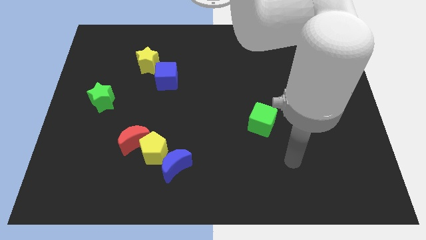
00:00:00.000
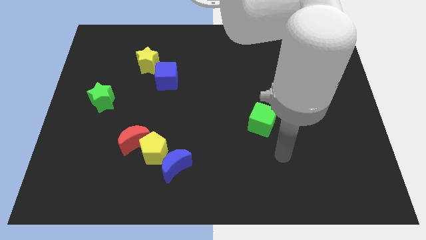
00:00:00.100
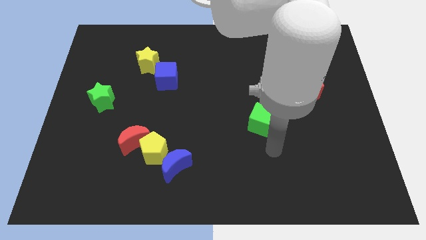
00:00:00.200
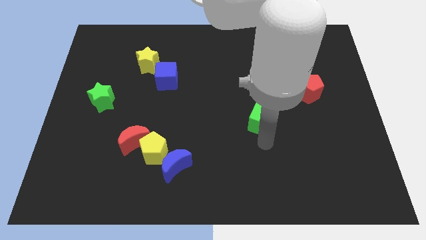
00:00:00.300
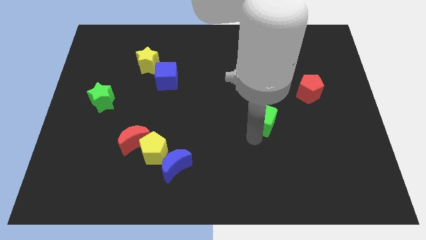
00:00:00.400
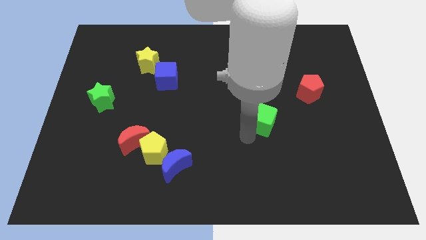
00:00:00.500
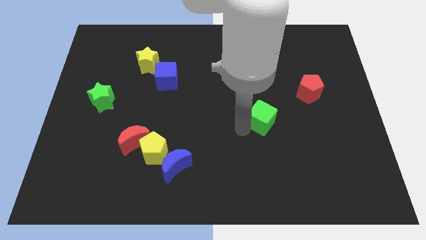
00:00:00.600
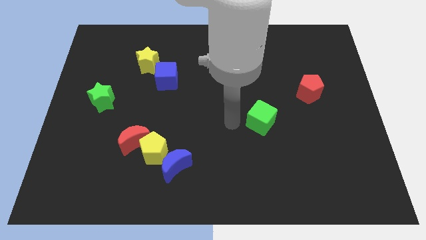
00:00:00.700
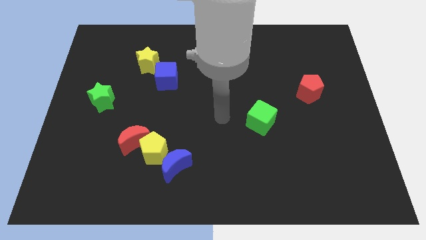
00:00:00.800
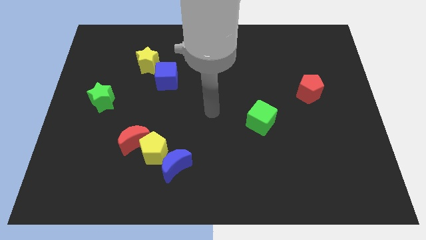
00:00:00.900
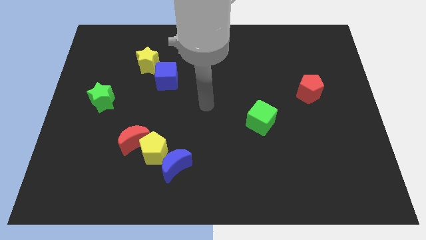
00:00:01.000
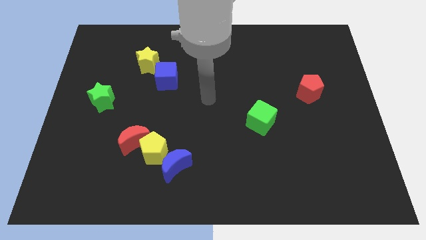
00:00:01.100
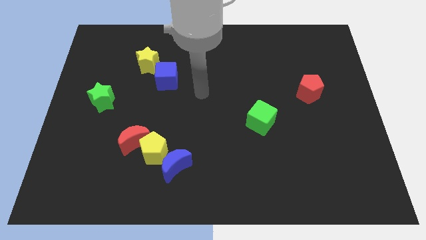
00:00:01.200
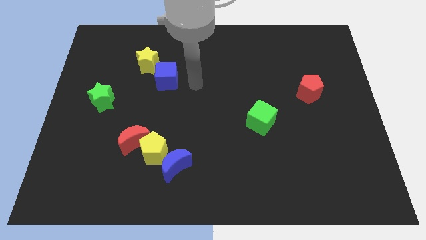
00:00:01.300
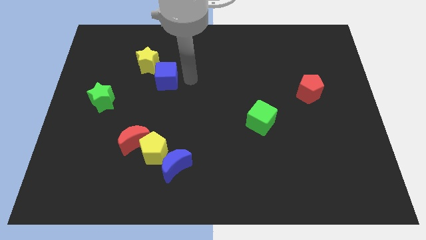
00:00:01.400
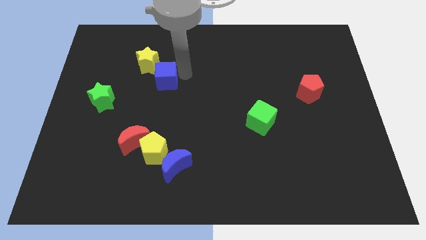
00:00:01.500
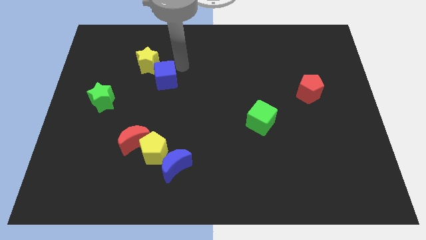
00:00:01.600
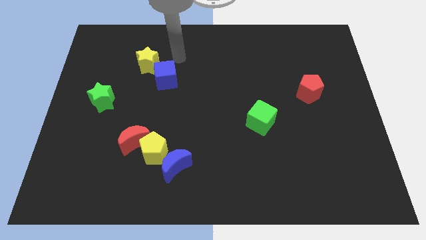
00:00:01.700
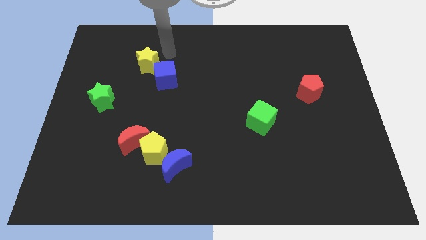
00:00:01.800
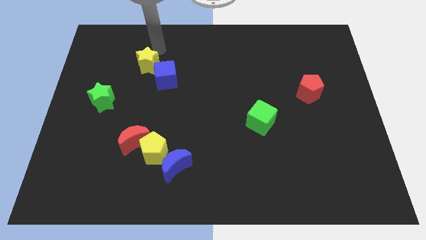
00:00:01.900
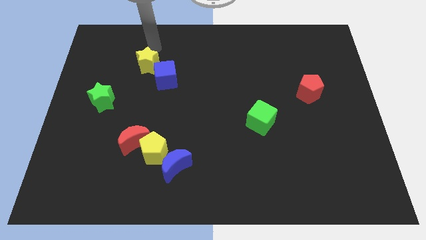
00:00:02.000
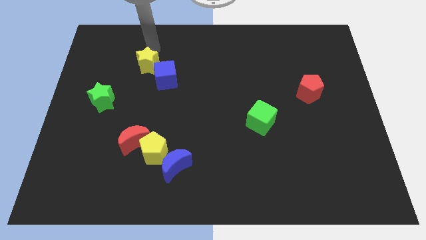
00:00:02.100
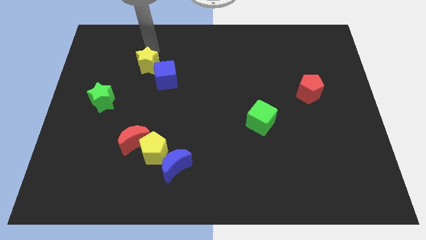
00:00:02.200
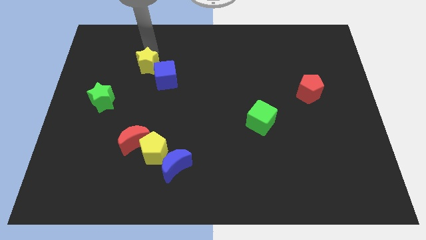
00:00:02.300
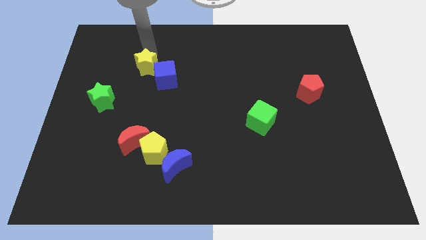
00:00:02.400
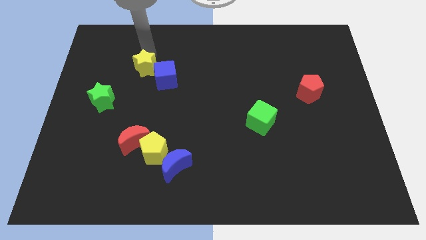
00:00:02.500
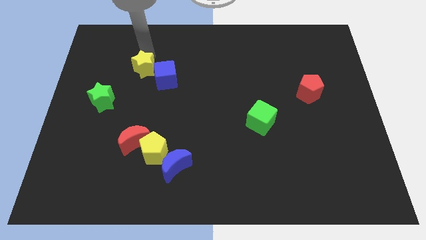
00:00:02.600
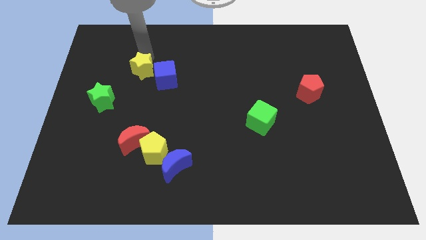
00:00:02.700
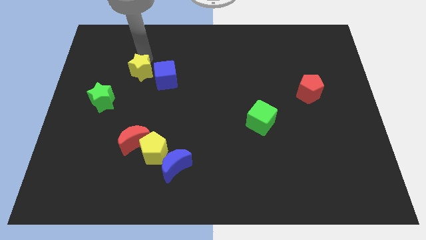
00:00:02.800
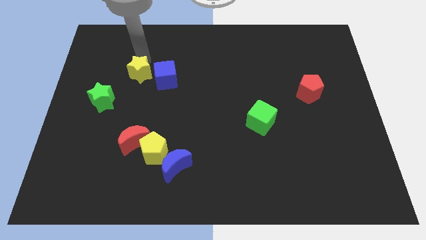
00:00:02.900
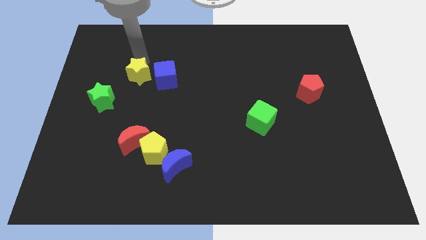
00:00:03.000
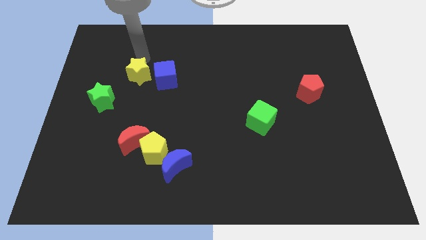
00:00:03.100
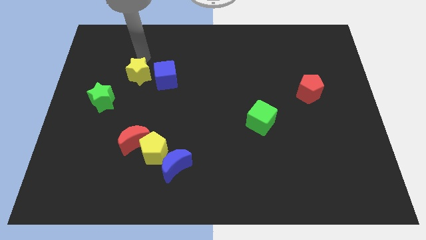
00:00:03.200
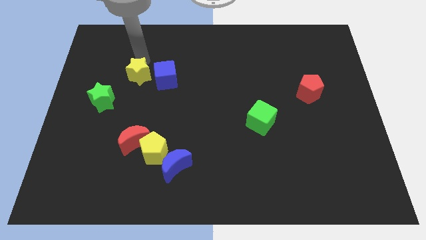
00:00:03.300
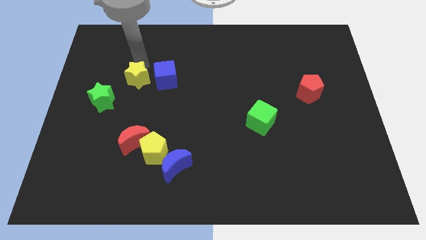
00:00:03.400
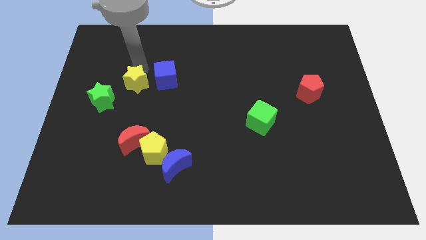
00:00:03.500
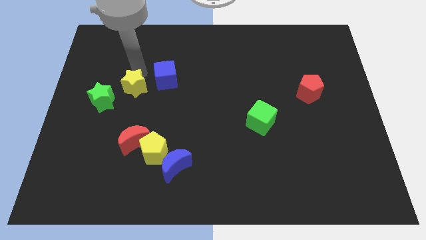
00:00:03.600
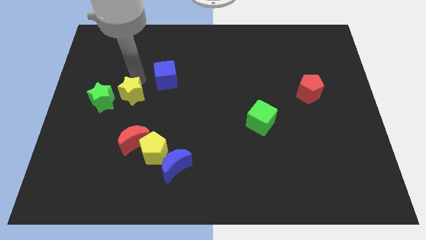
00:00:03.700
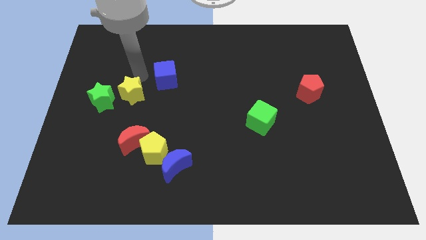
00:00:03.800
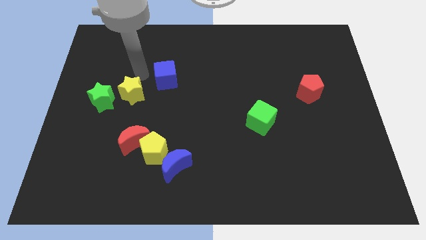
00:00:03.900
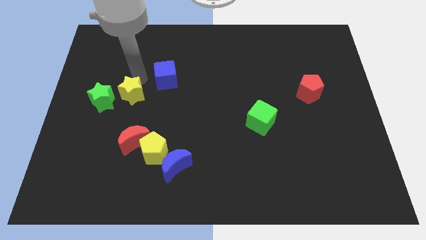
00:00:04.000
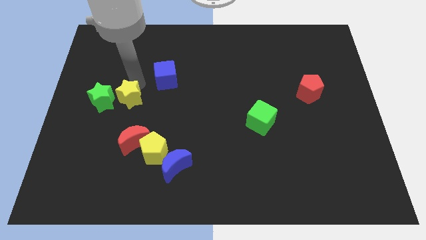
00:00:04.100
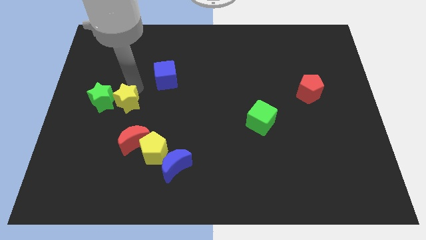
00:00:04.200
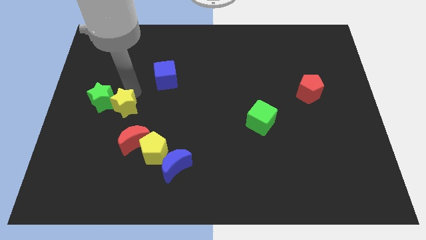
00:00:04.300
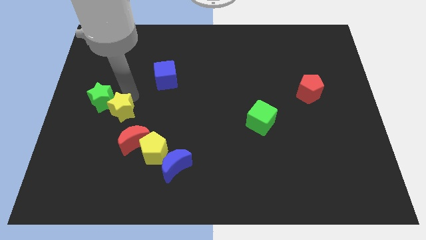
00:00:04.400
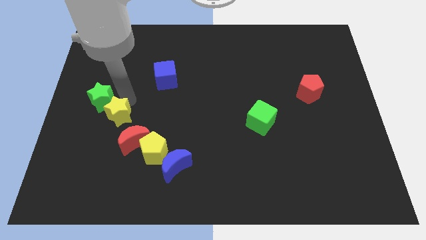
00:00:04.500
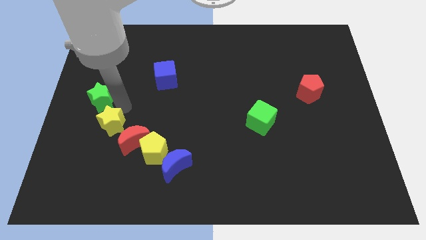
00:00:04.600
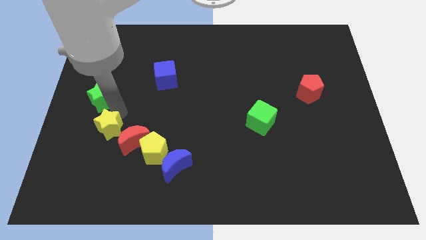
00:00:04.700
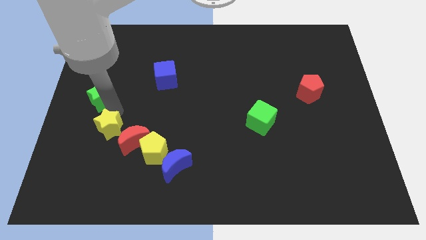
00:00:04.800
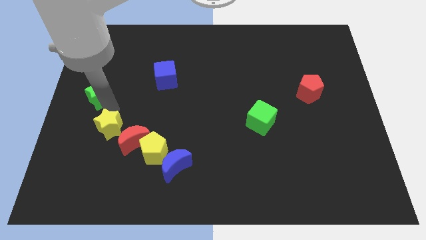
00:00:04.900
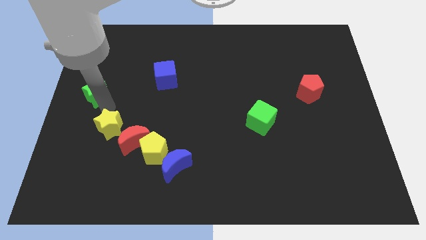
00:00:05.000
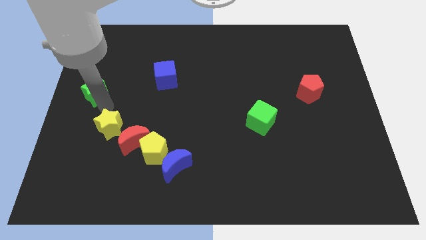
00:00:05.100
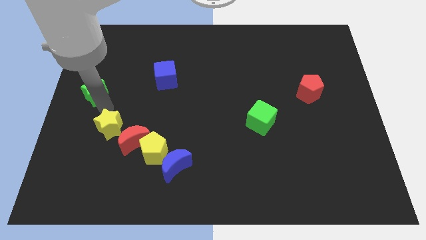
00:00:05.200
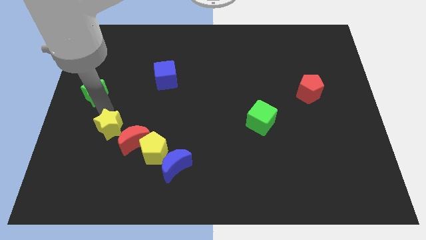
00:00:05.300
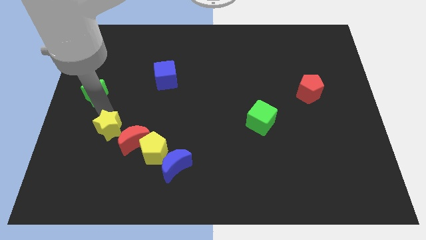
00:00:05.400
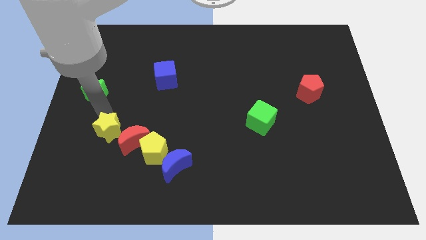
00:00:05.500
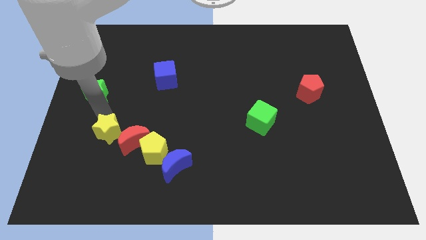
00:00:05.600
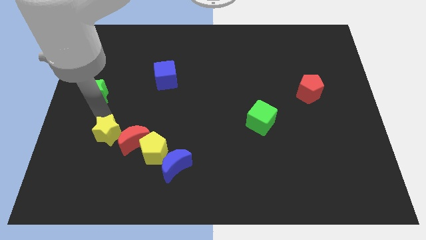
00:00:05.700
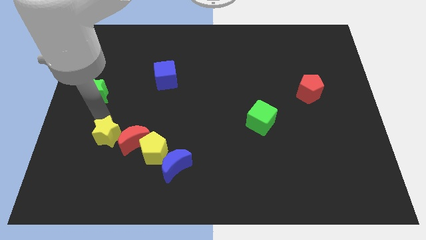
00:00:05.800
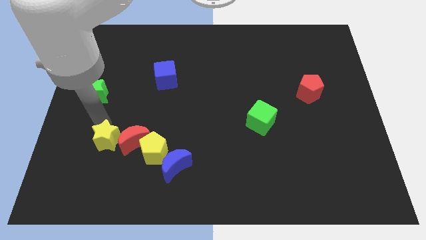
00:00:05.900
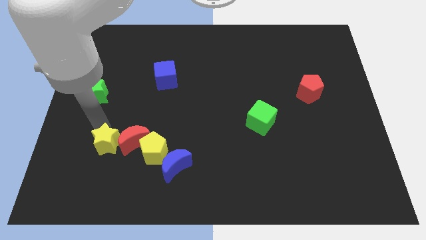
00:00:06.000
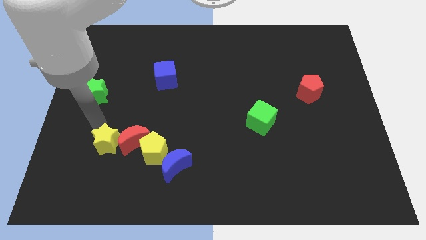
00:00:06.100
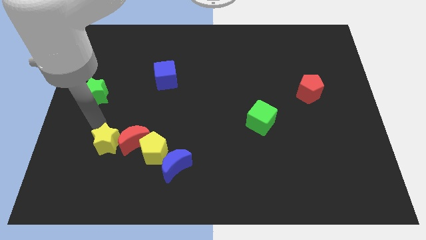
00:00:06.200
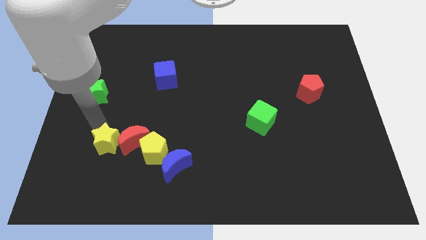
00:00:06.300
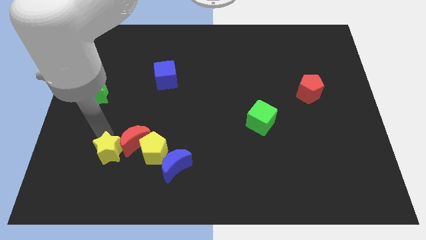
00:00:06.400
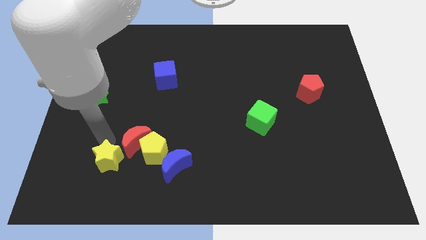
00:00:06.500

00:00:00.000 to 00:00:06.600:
move the yellow star to the bottom left side of the yellow pentagon

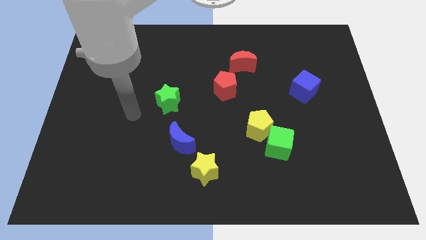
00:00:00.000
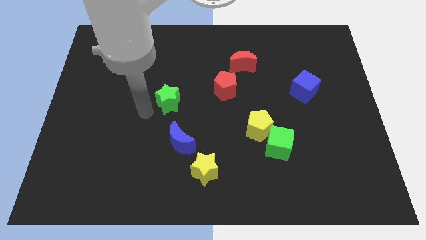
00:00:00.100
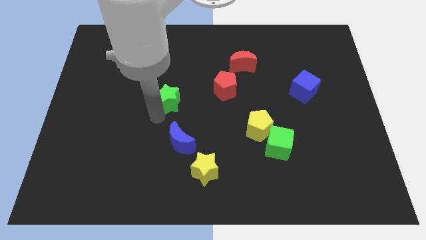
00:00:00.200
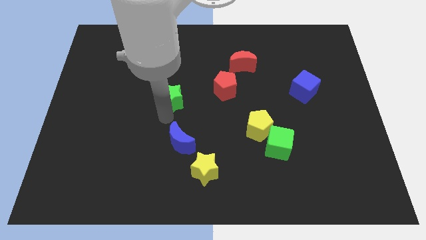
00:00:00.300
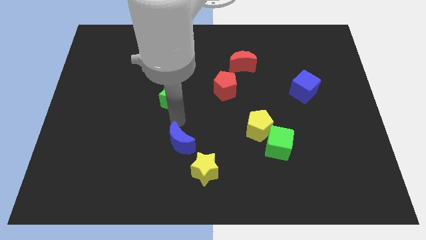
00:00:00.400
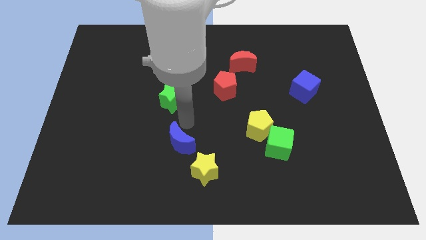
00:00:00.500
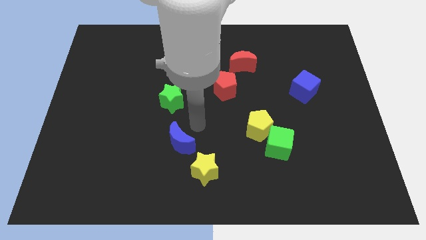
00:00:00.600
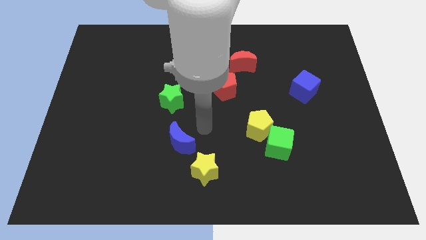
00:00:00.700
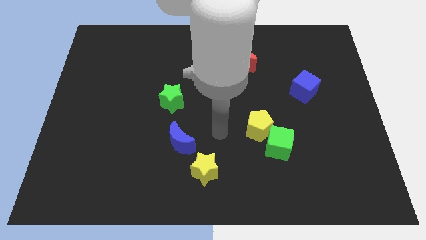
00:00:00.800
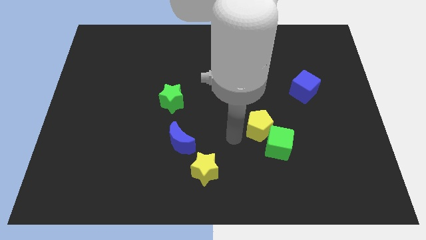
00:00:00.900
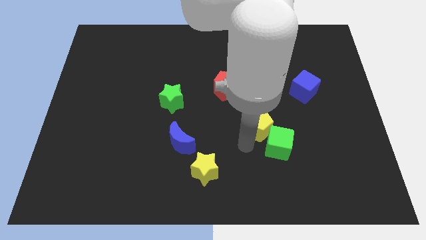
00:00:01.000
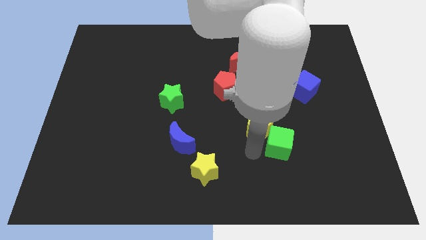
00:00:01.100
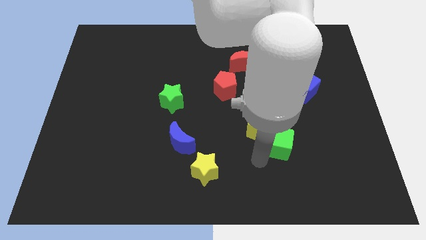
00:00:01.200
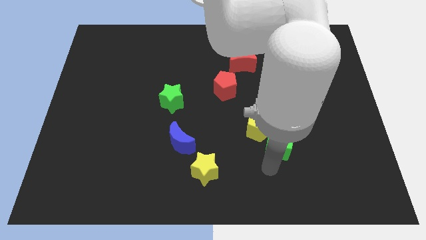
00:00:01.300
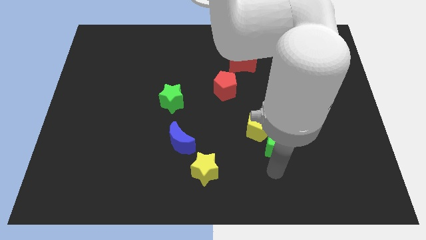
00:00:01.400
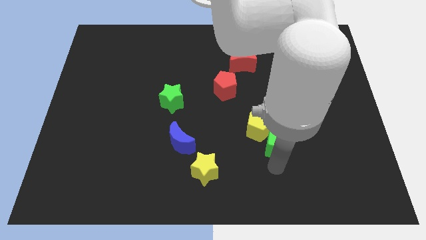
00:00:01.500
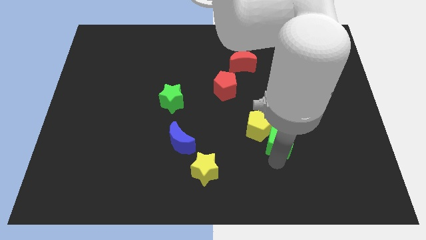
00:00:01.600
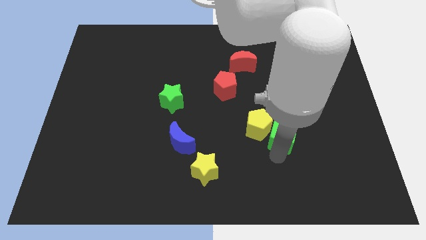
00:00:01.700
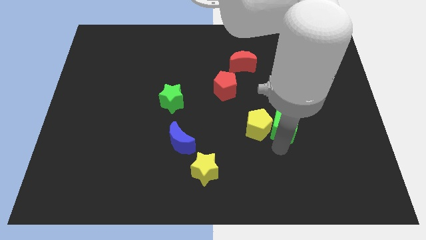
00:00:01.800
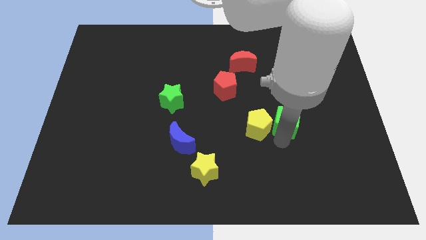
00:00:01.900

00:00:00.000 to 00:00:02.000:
move the green cube diagonally down and to the left of the blue cube
